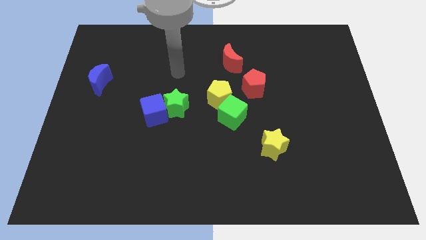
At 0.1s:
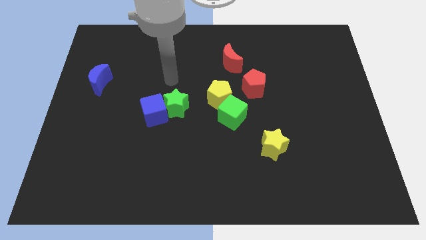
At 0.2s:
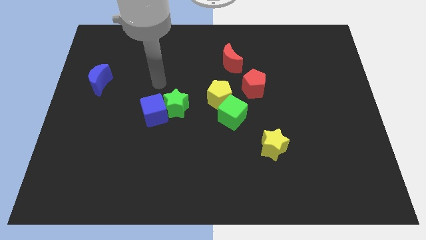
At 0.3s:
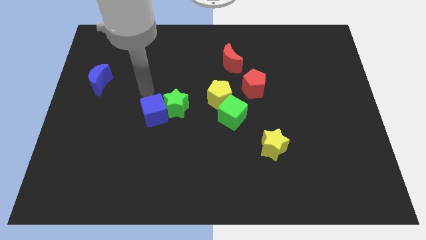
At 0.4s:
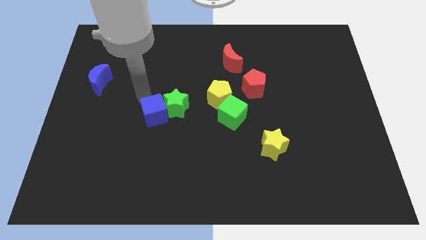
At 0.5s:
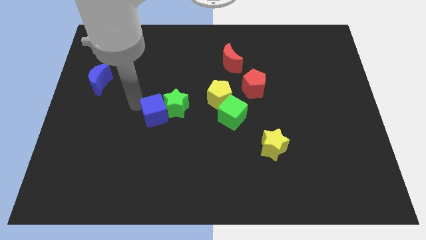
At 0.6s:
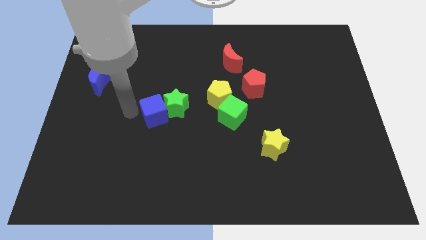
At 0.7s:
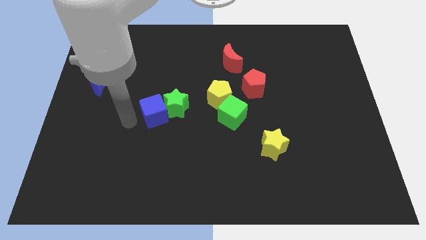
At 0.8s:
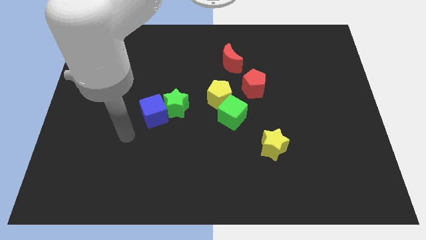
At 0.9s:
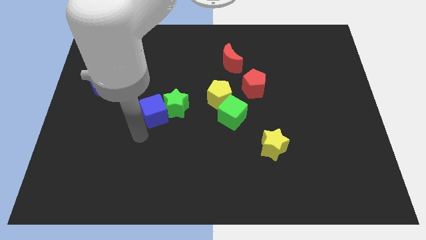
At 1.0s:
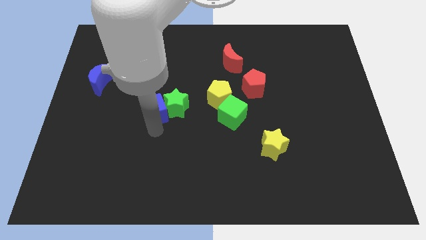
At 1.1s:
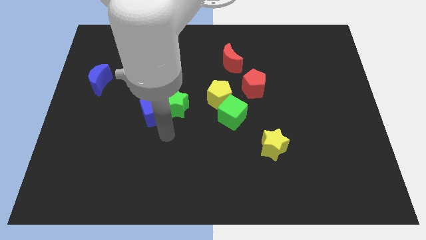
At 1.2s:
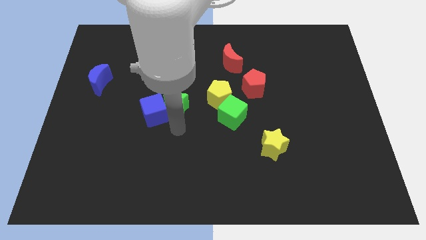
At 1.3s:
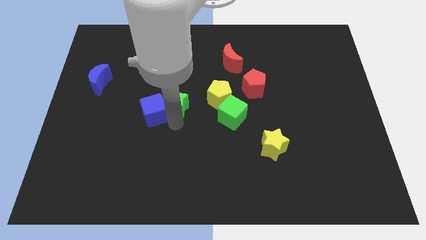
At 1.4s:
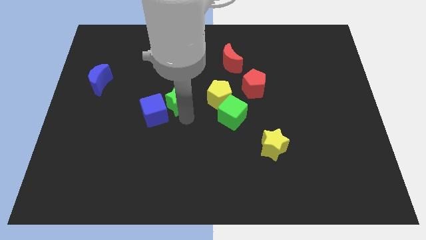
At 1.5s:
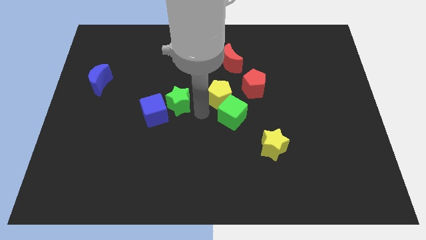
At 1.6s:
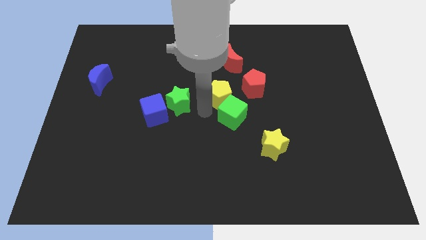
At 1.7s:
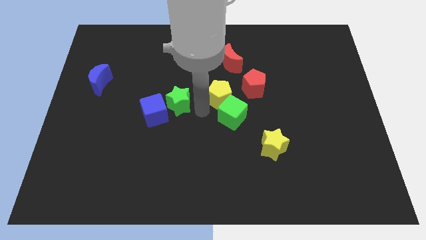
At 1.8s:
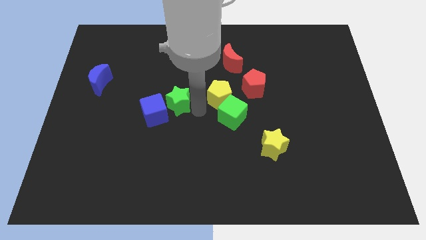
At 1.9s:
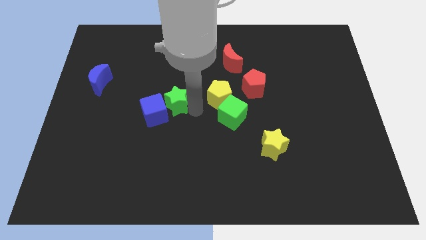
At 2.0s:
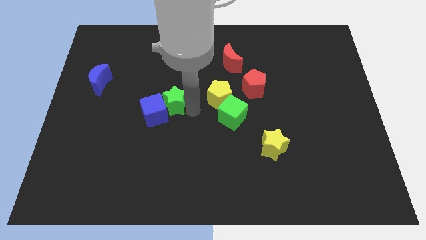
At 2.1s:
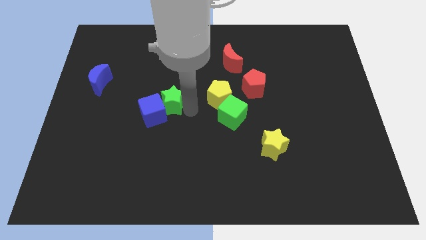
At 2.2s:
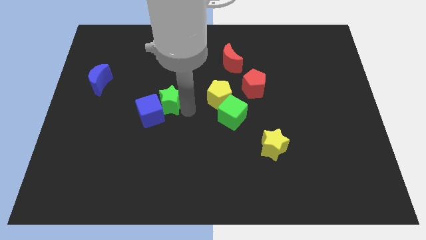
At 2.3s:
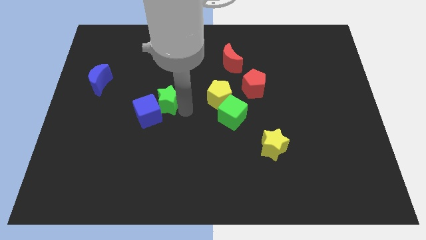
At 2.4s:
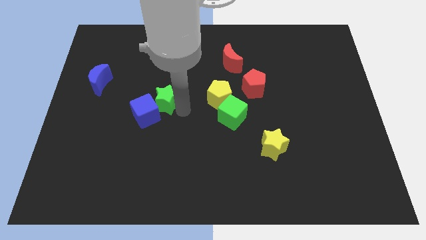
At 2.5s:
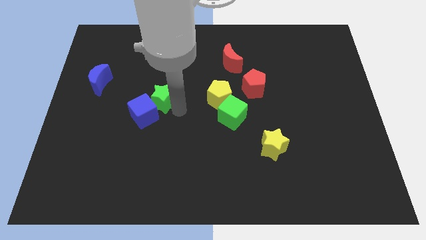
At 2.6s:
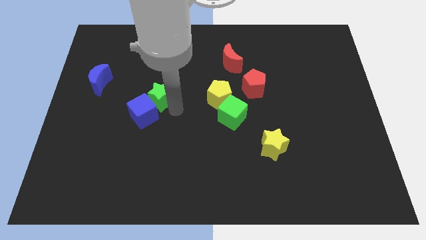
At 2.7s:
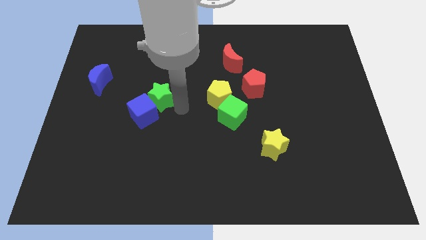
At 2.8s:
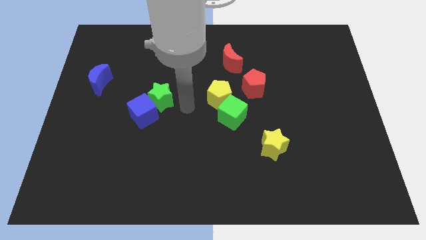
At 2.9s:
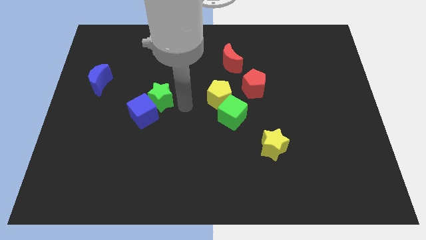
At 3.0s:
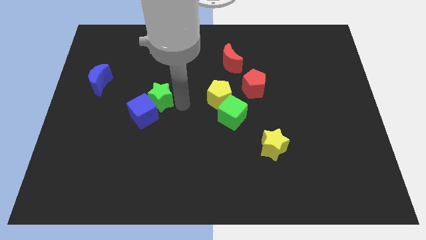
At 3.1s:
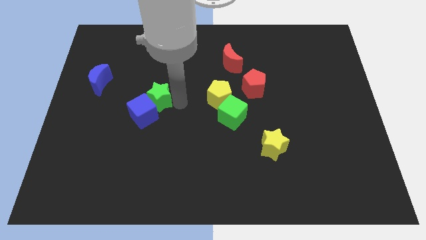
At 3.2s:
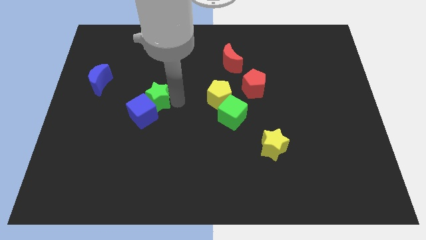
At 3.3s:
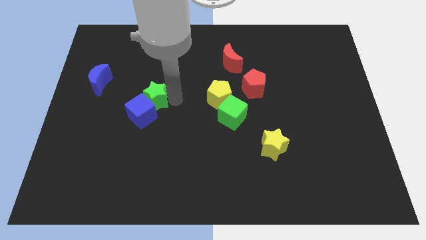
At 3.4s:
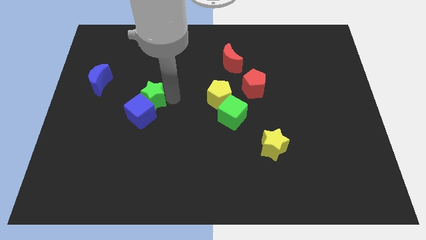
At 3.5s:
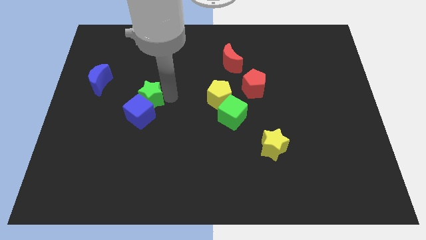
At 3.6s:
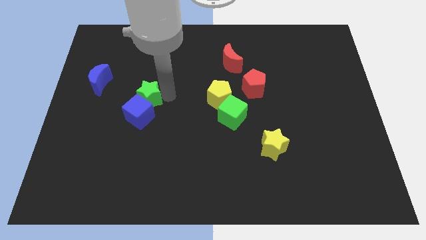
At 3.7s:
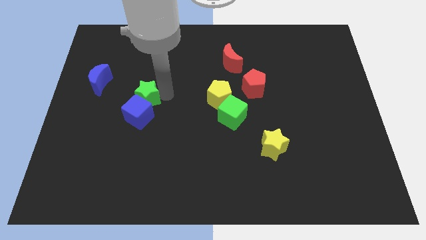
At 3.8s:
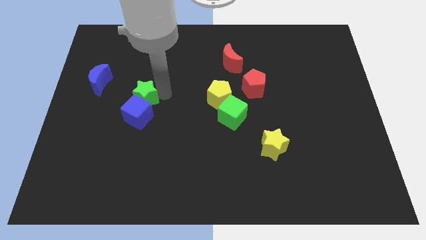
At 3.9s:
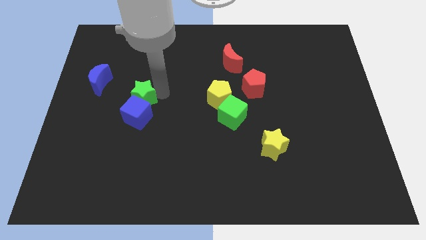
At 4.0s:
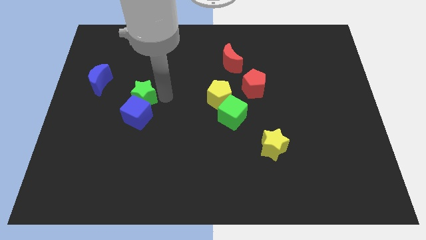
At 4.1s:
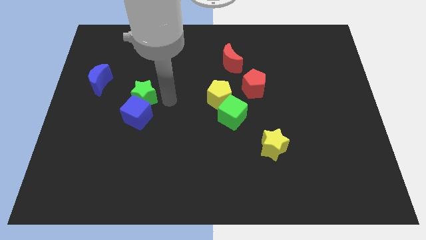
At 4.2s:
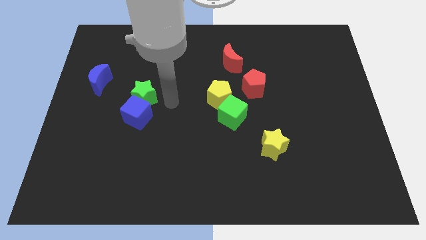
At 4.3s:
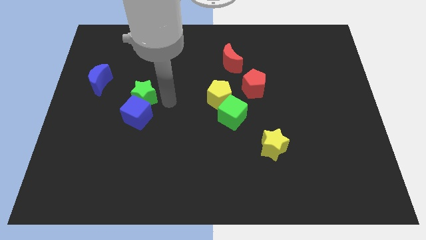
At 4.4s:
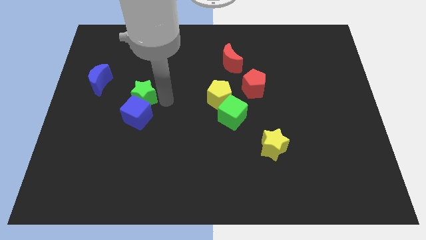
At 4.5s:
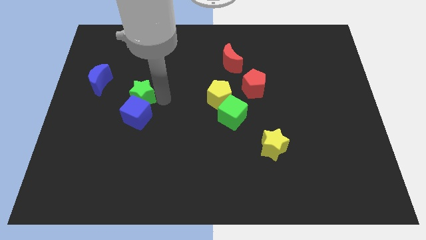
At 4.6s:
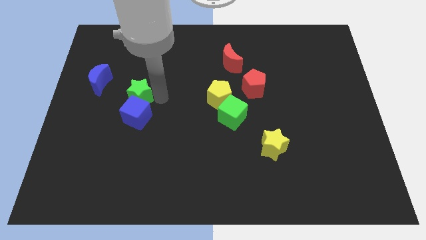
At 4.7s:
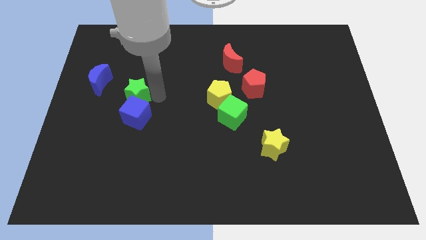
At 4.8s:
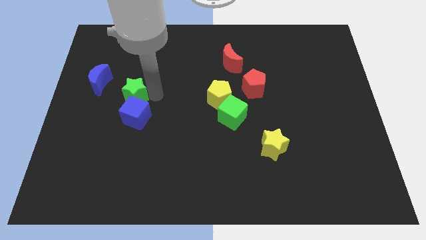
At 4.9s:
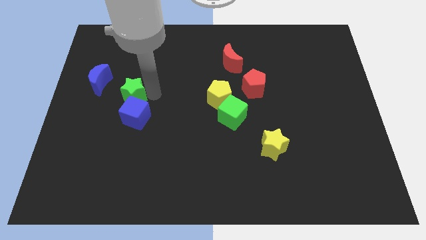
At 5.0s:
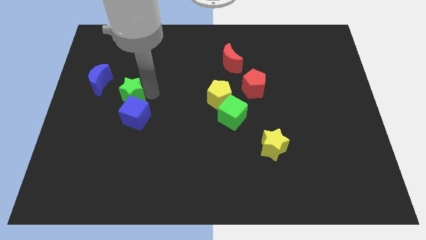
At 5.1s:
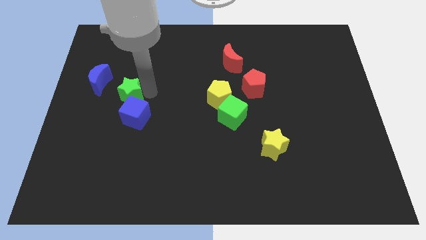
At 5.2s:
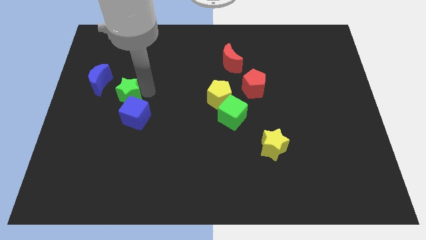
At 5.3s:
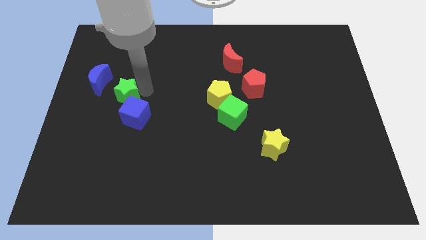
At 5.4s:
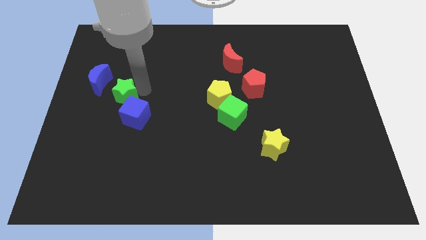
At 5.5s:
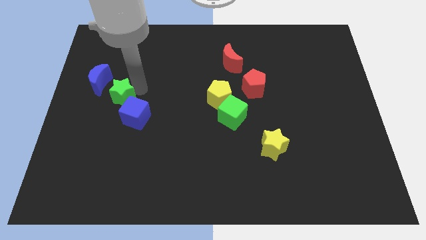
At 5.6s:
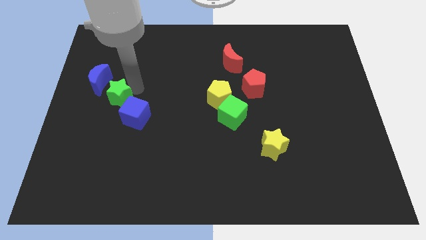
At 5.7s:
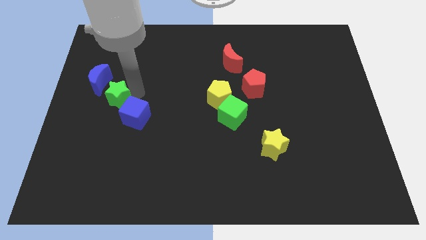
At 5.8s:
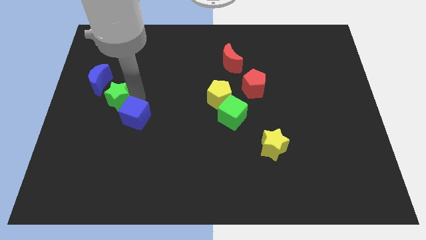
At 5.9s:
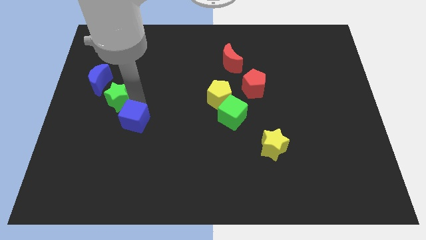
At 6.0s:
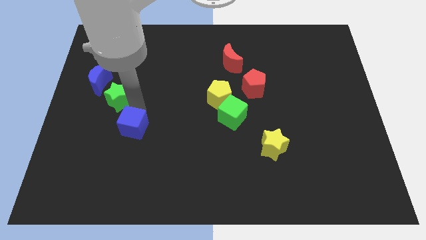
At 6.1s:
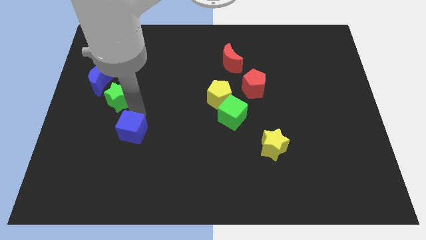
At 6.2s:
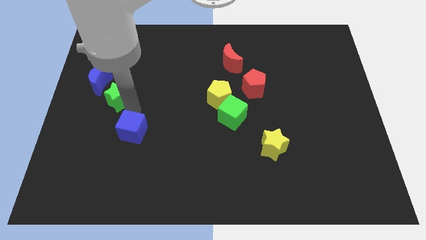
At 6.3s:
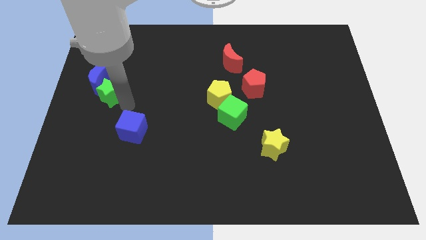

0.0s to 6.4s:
put the green star close to the blue moon
